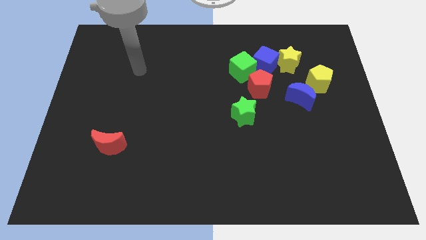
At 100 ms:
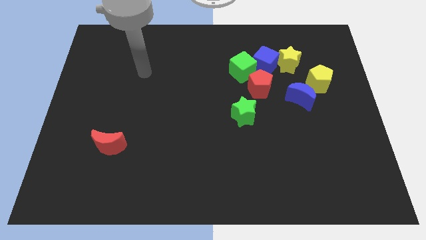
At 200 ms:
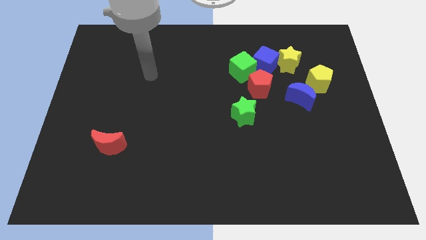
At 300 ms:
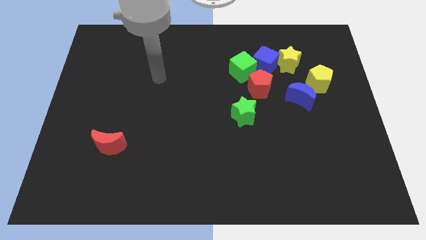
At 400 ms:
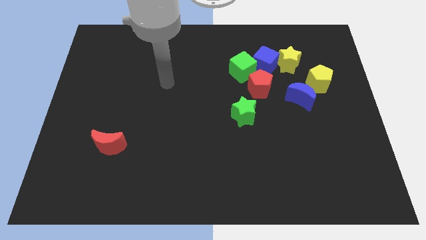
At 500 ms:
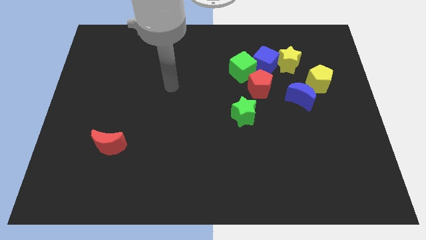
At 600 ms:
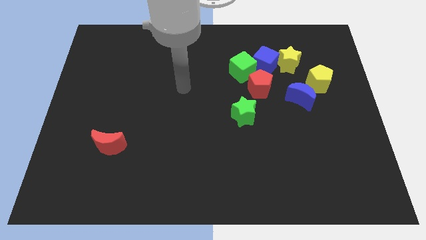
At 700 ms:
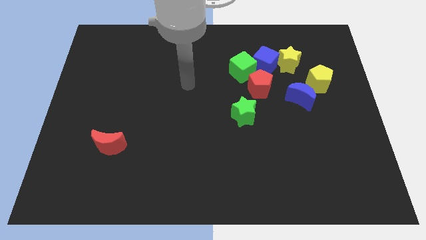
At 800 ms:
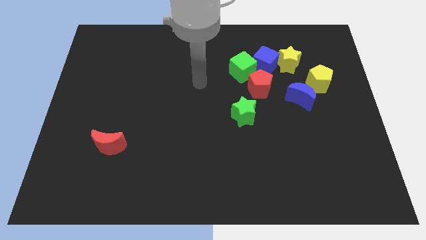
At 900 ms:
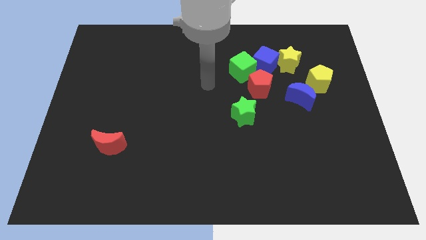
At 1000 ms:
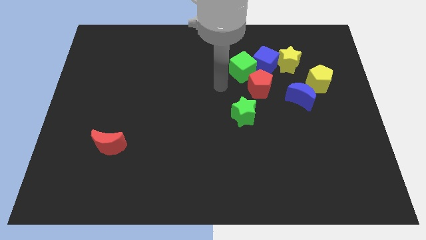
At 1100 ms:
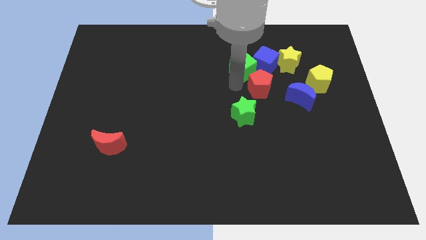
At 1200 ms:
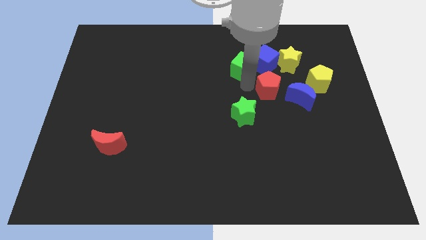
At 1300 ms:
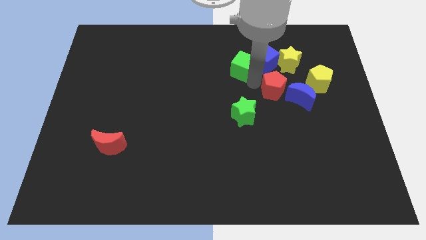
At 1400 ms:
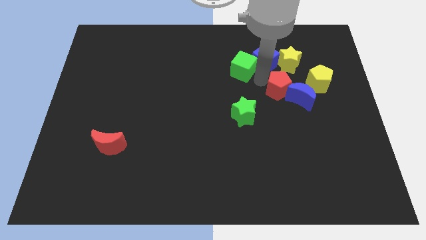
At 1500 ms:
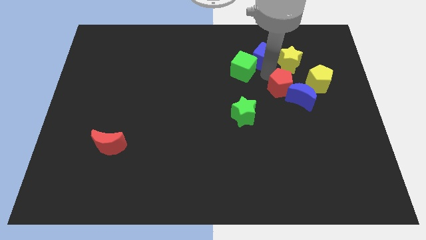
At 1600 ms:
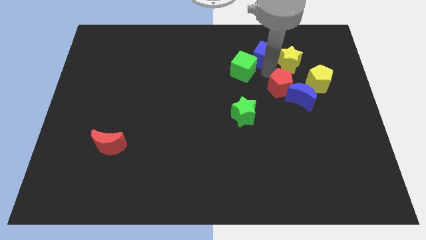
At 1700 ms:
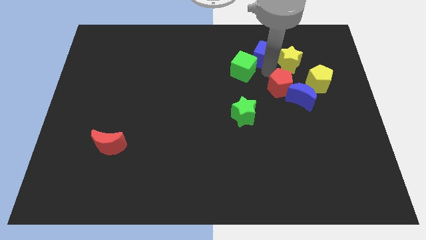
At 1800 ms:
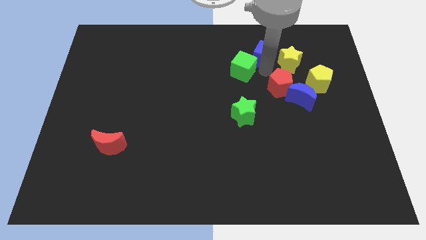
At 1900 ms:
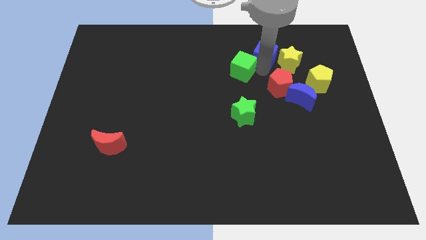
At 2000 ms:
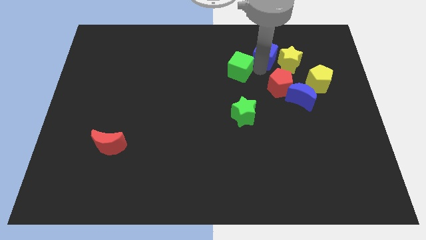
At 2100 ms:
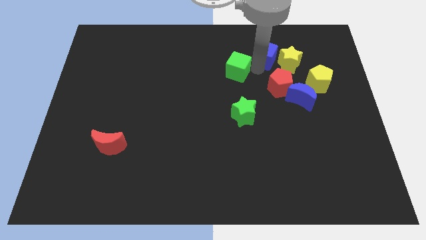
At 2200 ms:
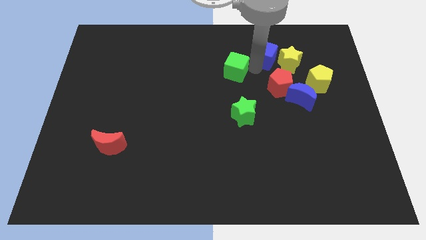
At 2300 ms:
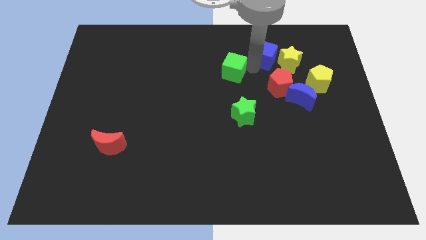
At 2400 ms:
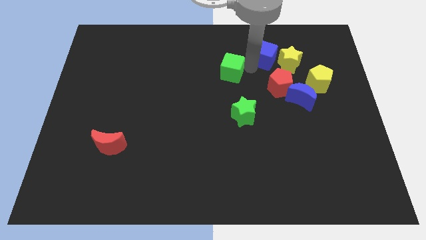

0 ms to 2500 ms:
pull the green cube apart from the blue cube and red pentagon

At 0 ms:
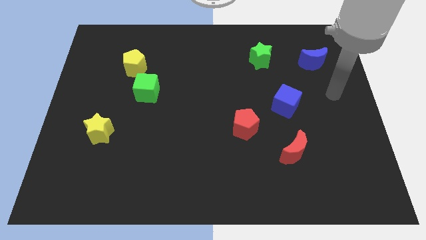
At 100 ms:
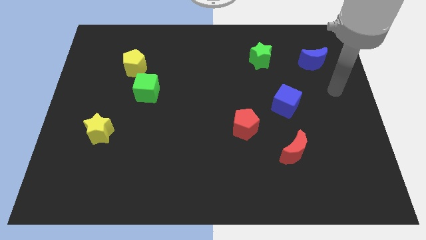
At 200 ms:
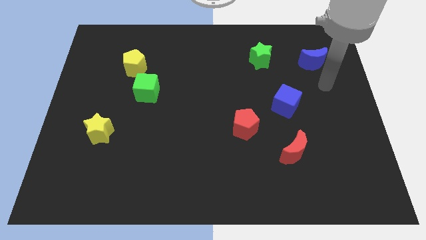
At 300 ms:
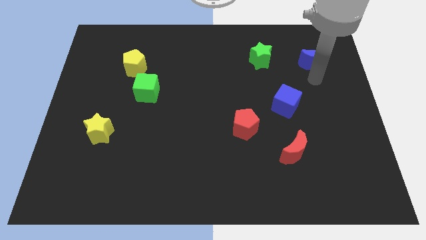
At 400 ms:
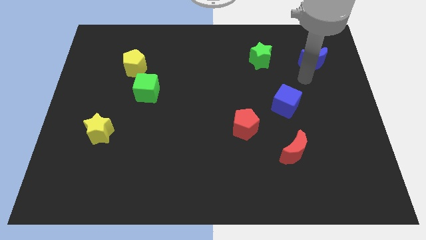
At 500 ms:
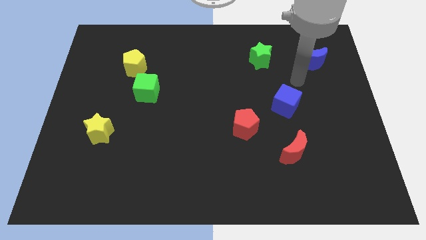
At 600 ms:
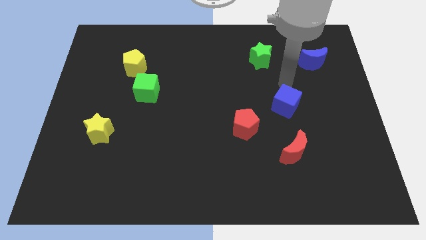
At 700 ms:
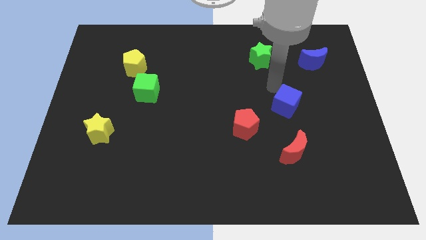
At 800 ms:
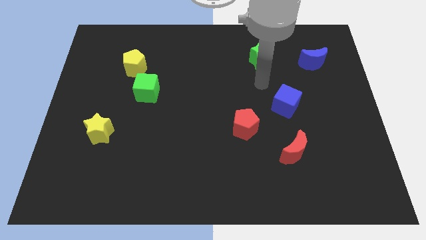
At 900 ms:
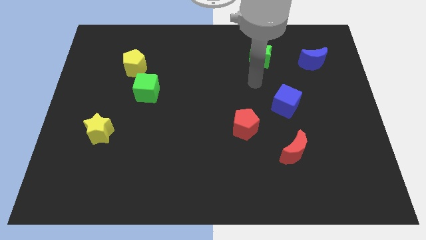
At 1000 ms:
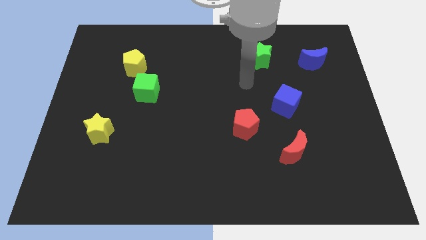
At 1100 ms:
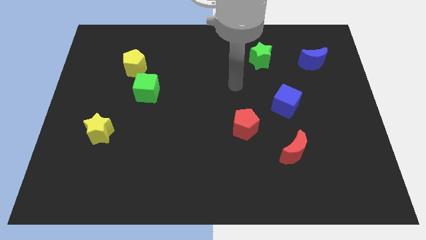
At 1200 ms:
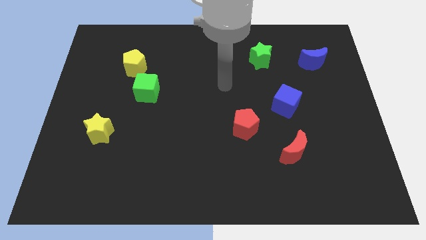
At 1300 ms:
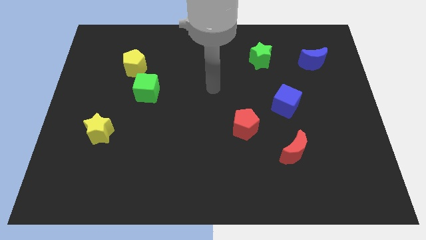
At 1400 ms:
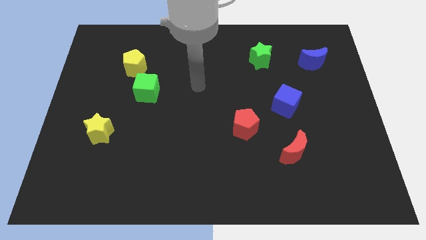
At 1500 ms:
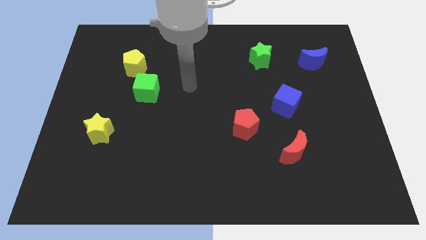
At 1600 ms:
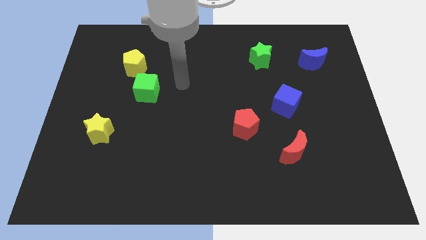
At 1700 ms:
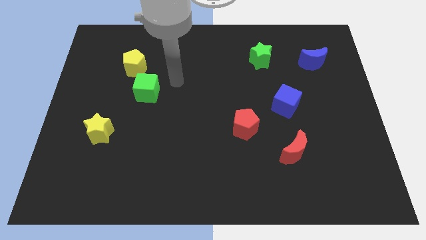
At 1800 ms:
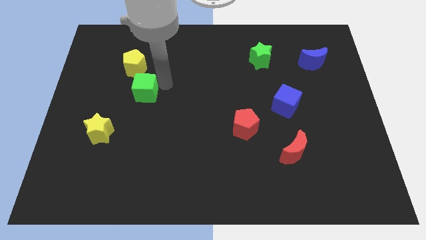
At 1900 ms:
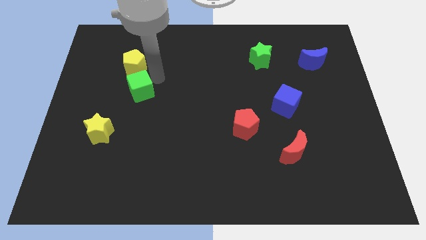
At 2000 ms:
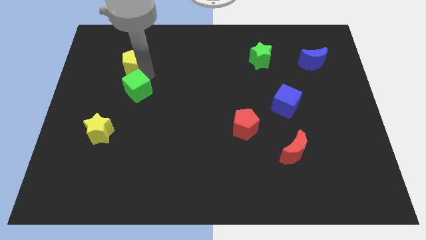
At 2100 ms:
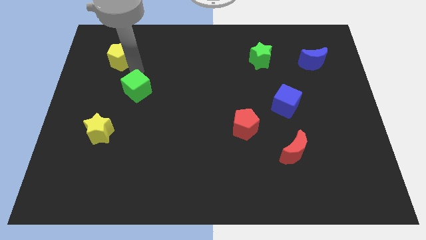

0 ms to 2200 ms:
move the green cube away from the yellow pentagon

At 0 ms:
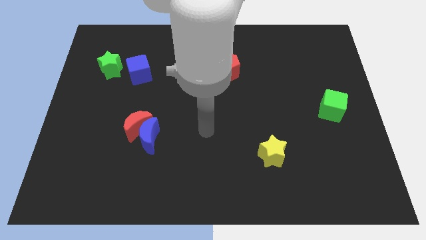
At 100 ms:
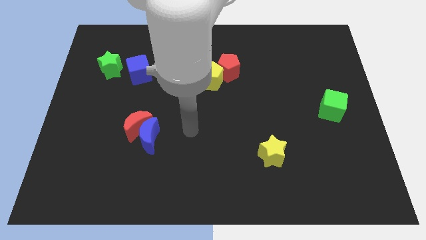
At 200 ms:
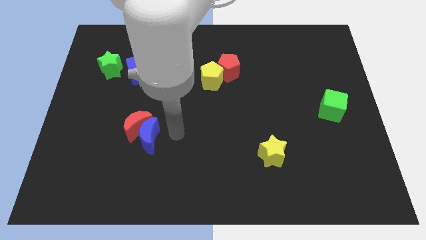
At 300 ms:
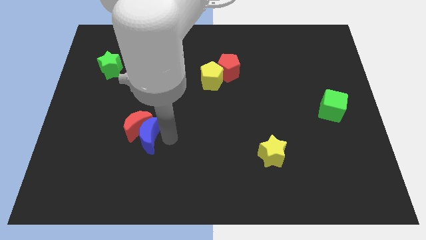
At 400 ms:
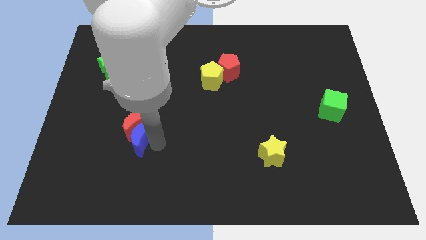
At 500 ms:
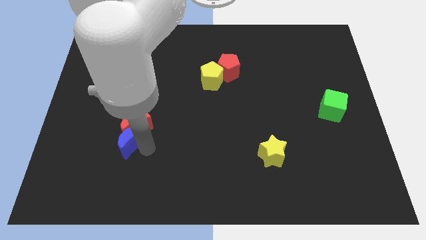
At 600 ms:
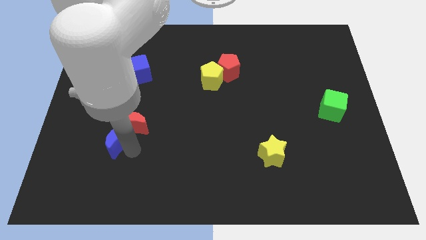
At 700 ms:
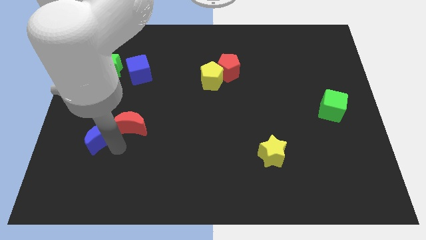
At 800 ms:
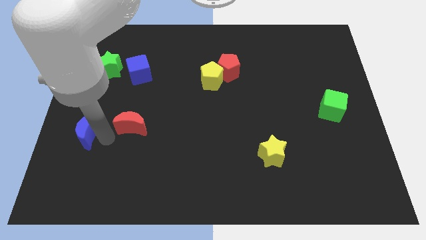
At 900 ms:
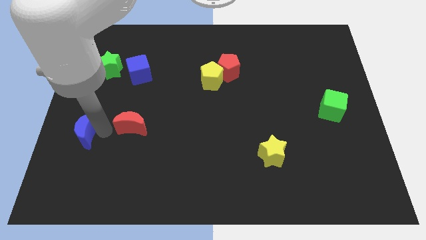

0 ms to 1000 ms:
move the red moon away from the blue moon

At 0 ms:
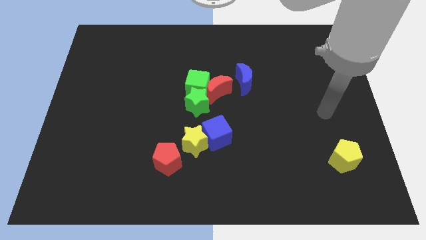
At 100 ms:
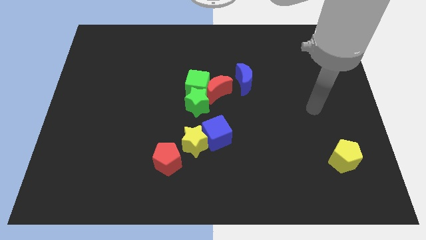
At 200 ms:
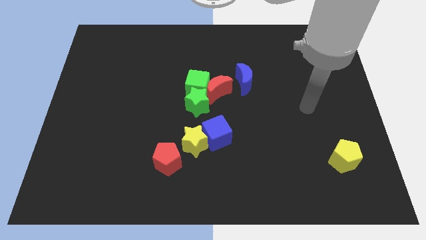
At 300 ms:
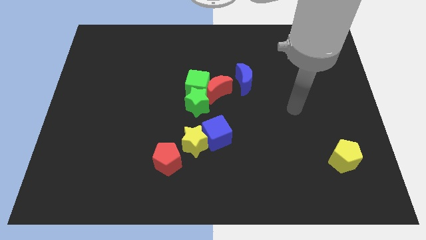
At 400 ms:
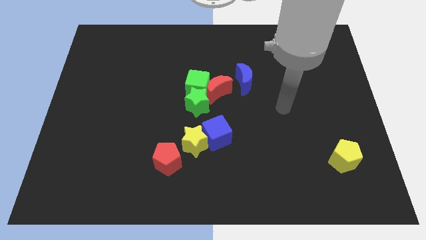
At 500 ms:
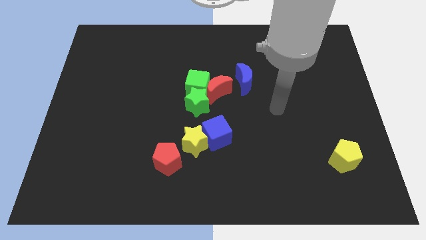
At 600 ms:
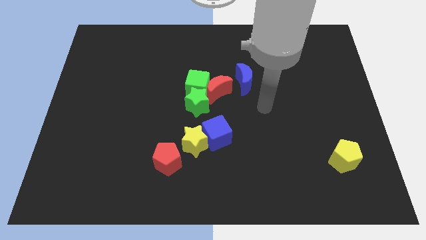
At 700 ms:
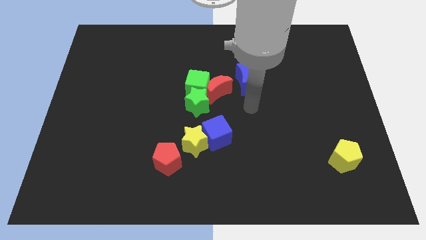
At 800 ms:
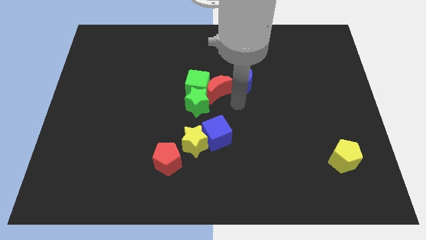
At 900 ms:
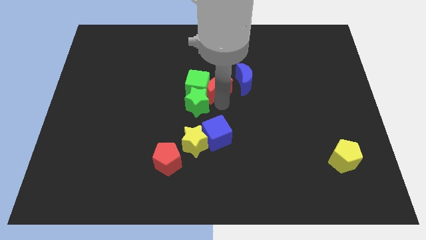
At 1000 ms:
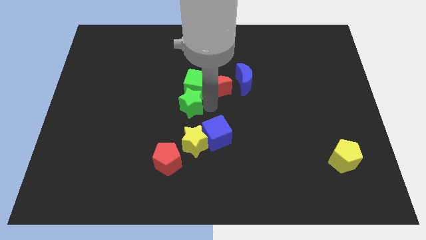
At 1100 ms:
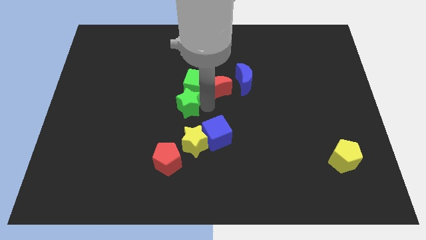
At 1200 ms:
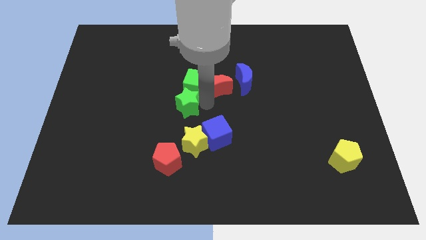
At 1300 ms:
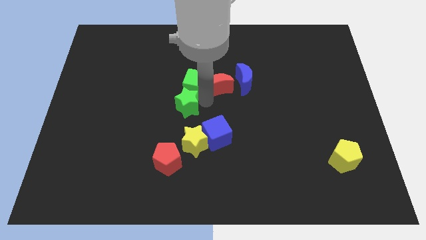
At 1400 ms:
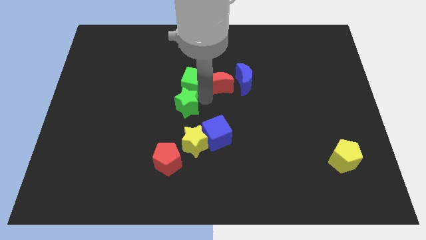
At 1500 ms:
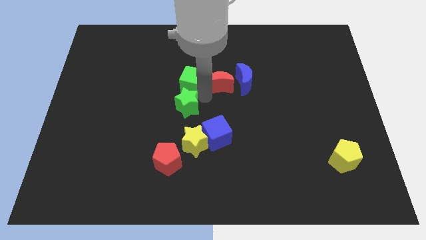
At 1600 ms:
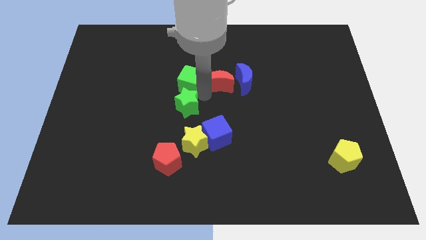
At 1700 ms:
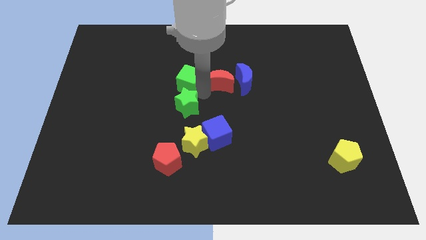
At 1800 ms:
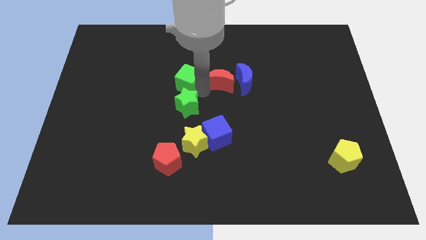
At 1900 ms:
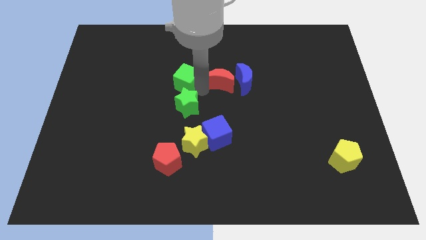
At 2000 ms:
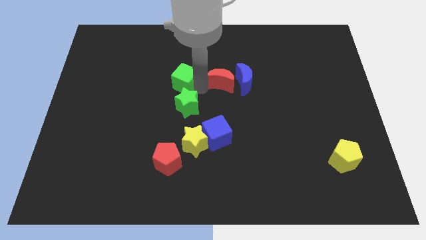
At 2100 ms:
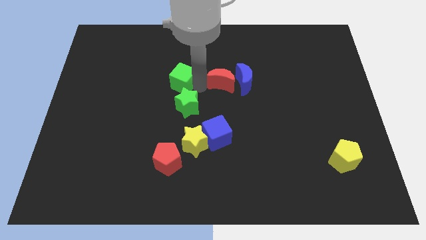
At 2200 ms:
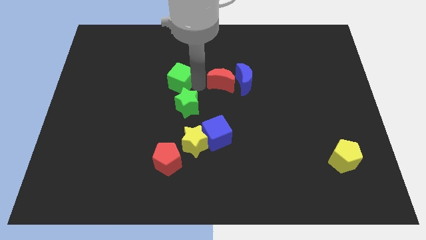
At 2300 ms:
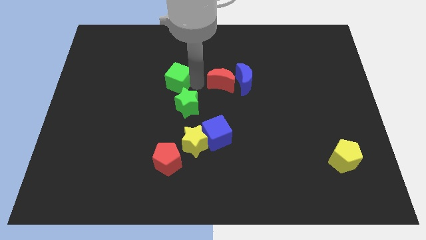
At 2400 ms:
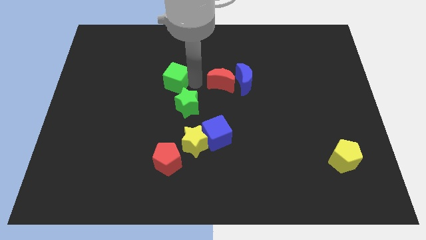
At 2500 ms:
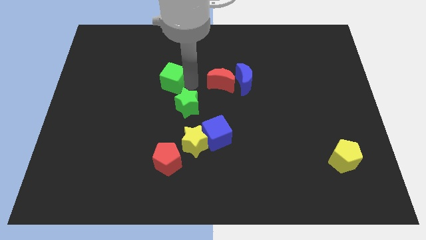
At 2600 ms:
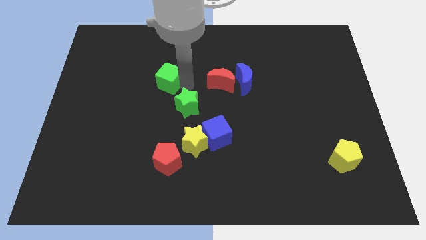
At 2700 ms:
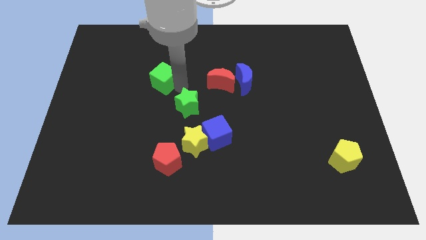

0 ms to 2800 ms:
separate the green cube from the red moon and green star

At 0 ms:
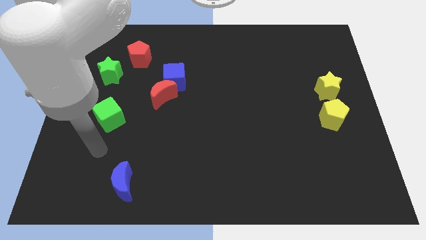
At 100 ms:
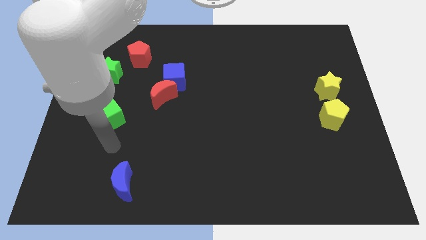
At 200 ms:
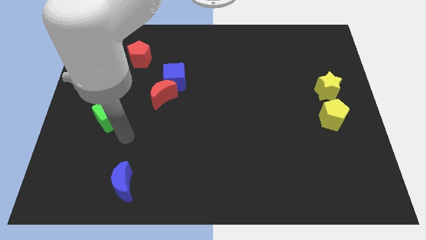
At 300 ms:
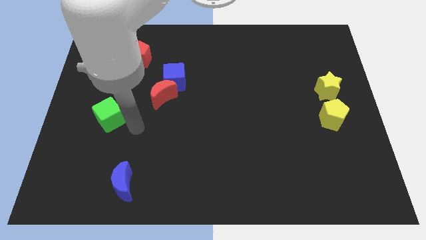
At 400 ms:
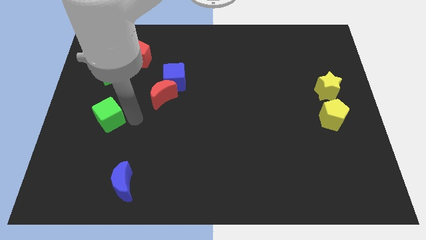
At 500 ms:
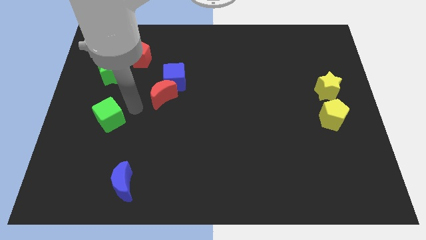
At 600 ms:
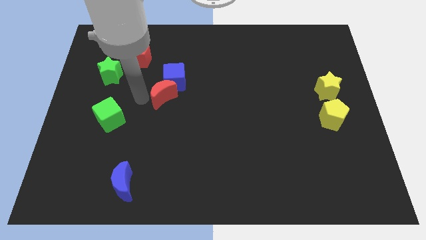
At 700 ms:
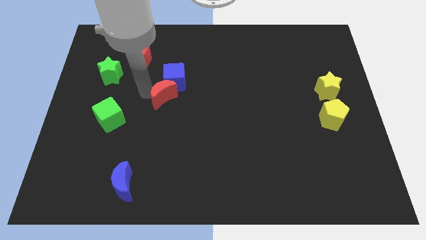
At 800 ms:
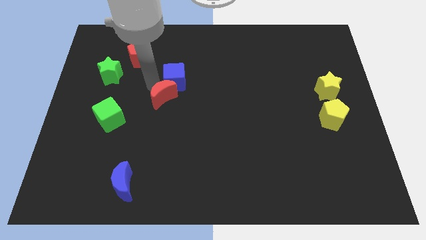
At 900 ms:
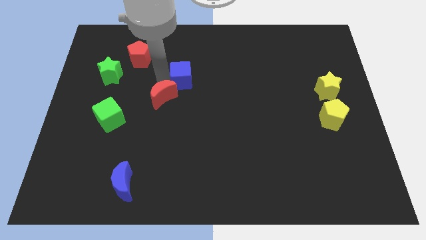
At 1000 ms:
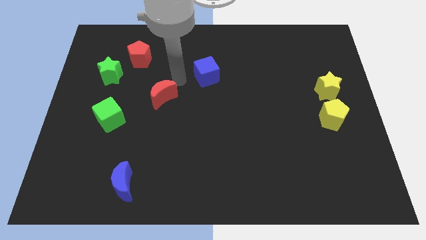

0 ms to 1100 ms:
pull the red moon apart from the blue cube
